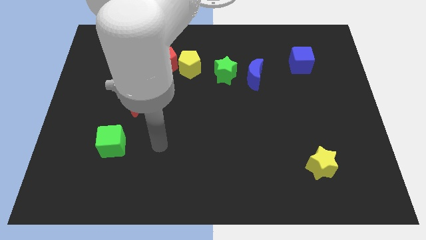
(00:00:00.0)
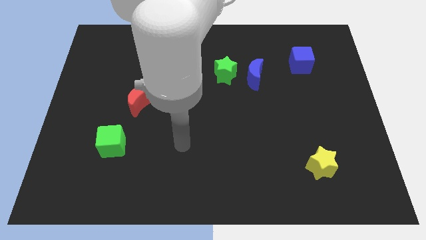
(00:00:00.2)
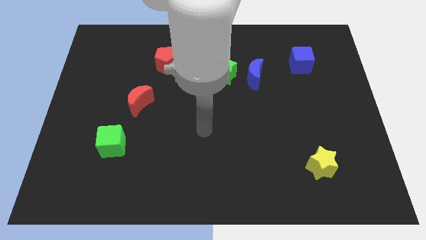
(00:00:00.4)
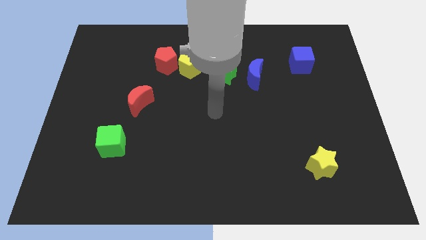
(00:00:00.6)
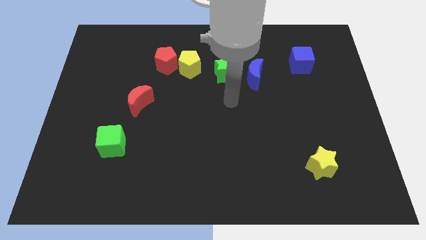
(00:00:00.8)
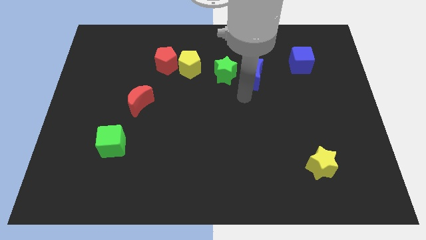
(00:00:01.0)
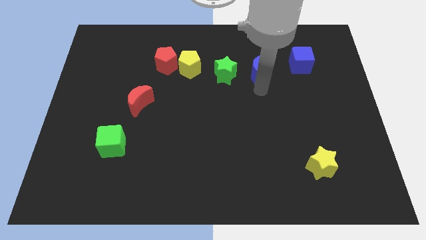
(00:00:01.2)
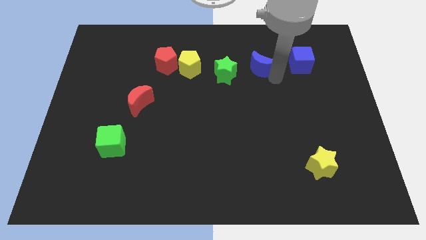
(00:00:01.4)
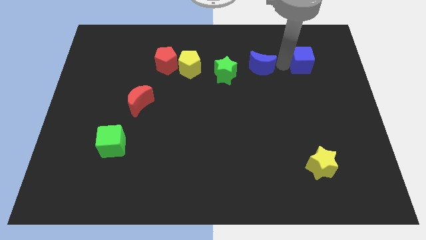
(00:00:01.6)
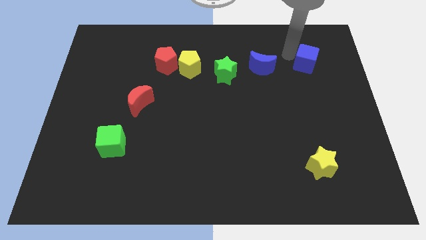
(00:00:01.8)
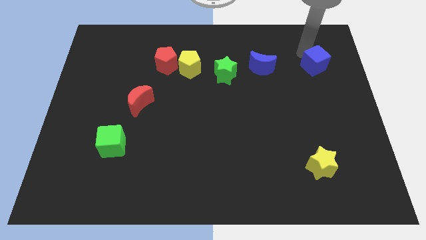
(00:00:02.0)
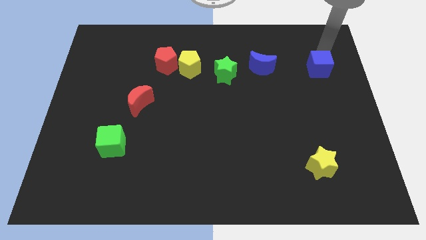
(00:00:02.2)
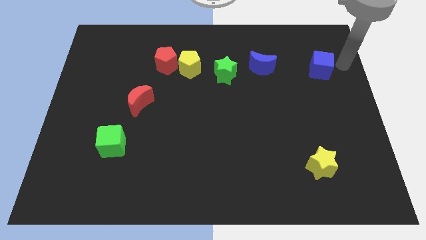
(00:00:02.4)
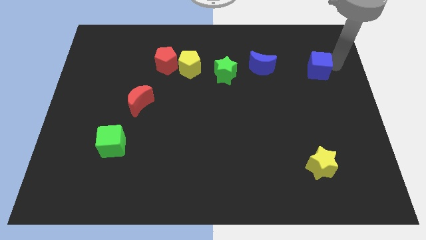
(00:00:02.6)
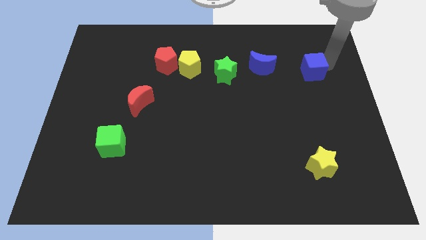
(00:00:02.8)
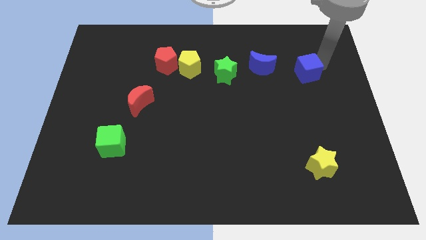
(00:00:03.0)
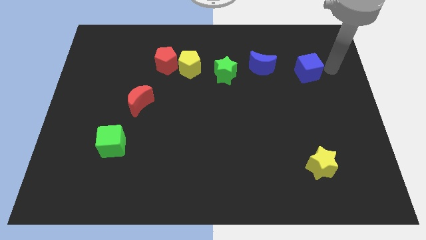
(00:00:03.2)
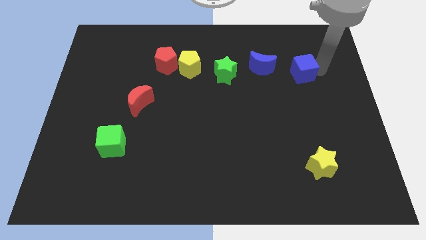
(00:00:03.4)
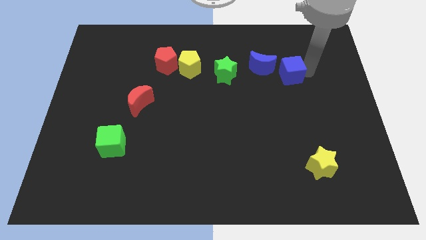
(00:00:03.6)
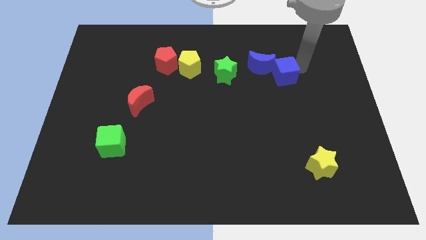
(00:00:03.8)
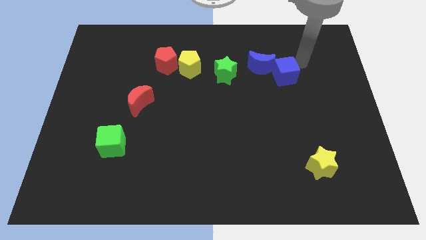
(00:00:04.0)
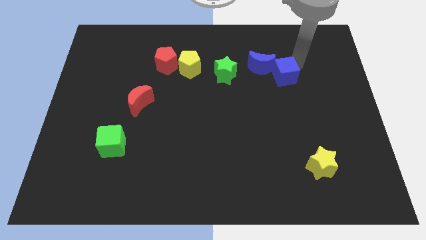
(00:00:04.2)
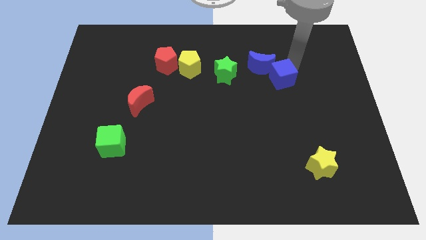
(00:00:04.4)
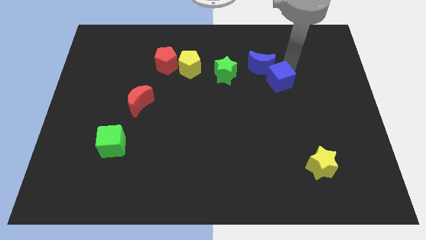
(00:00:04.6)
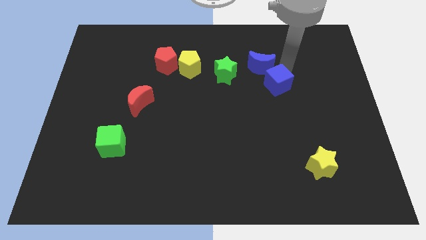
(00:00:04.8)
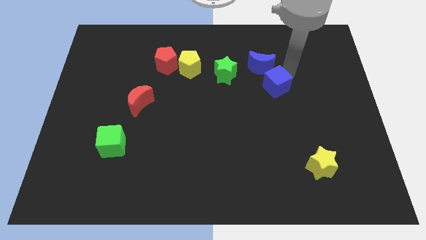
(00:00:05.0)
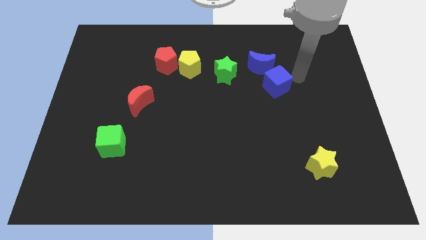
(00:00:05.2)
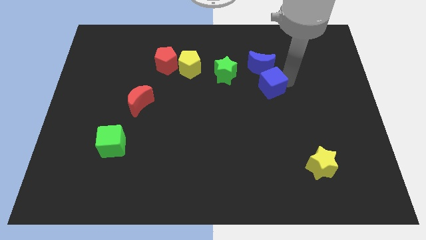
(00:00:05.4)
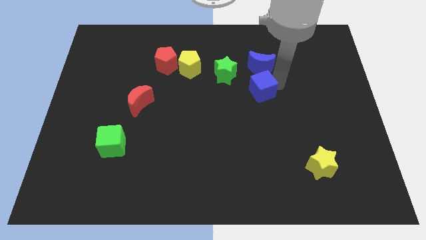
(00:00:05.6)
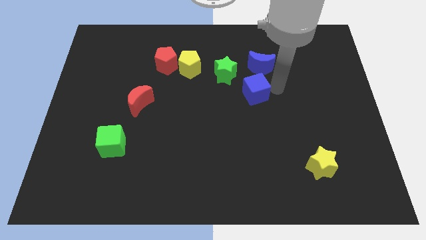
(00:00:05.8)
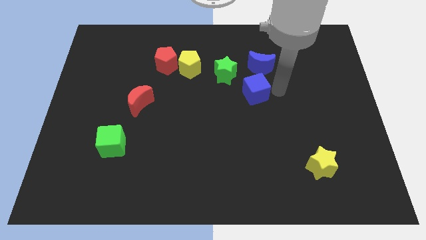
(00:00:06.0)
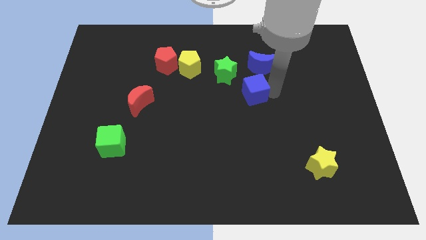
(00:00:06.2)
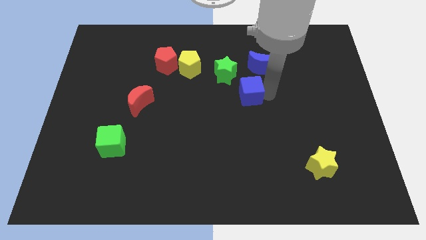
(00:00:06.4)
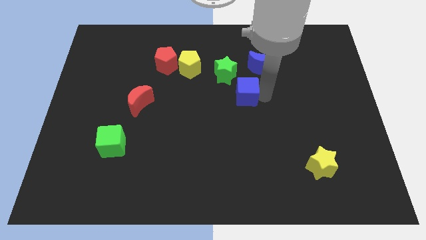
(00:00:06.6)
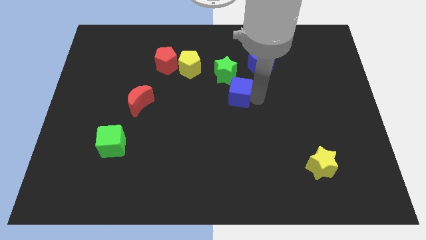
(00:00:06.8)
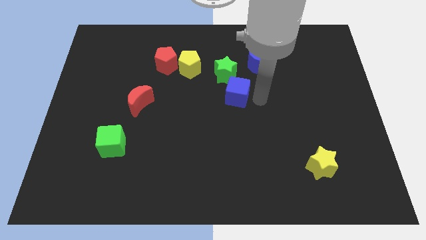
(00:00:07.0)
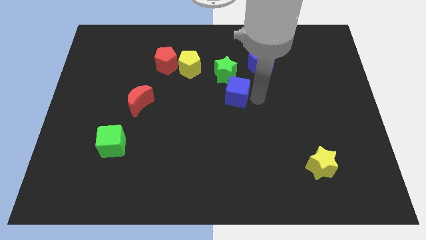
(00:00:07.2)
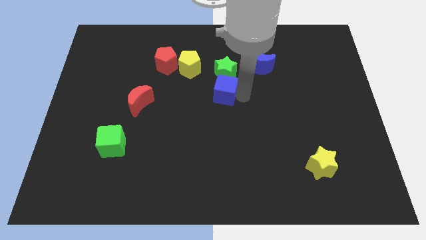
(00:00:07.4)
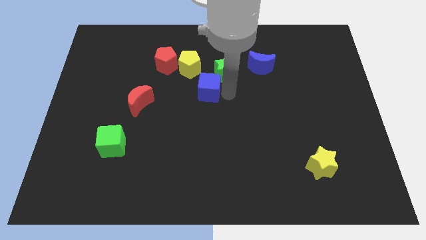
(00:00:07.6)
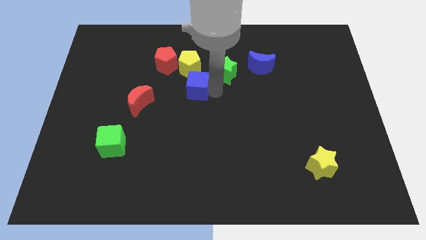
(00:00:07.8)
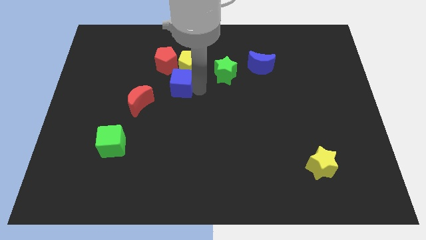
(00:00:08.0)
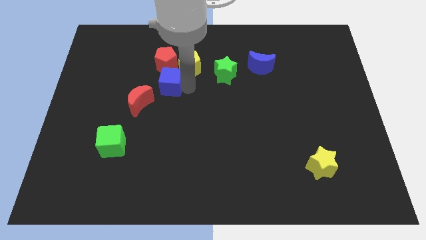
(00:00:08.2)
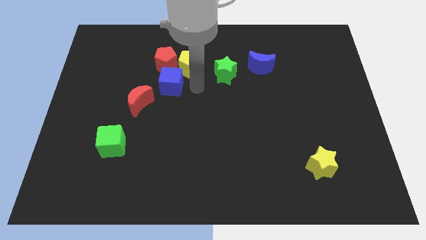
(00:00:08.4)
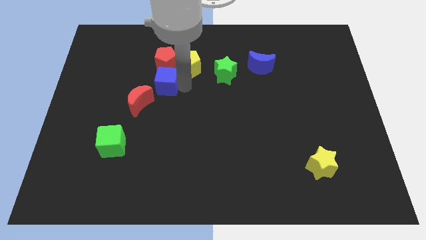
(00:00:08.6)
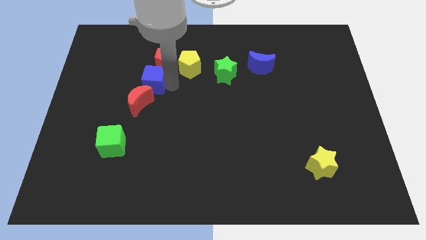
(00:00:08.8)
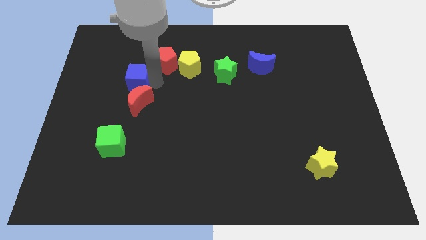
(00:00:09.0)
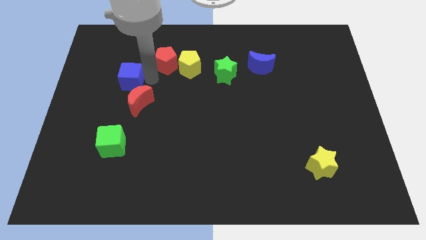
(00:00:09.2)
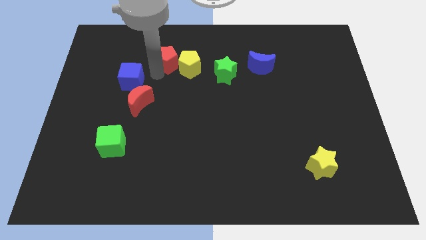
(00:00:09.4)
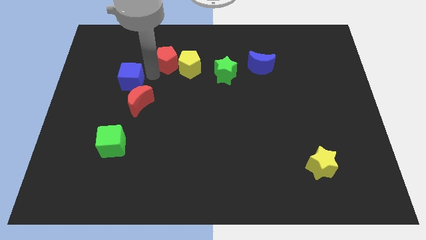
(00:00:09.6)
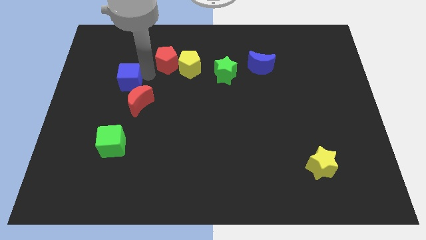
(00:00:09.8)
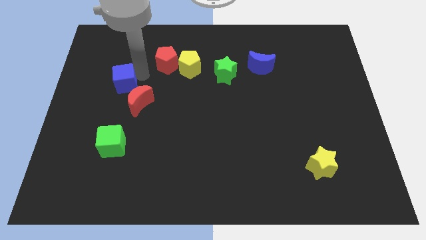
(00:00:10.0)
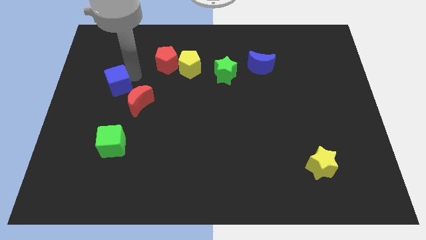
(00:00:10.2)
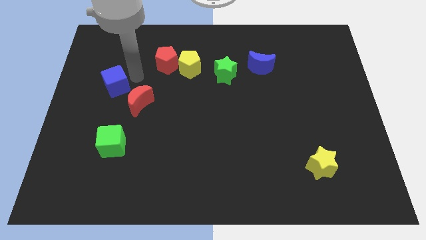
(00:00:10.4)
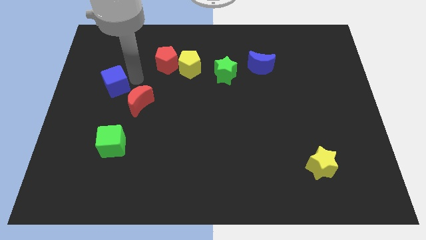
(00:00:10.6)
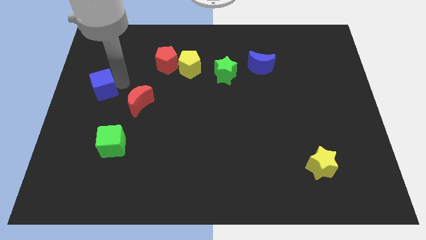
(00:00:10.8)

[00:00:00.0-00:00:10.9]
slide the blue cube to the center left

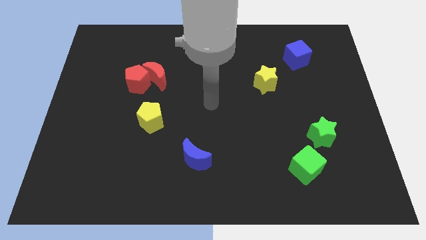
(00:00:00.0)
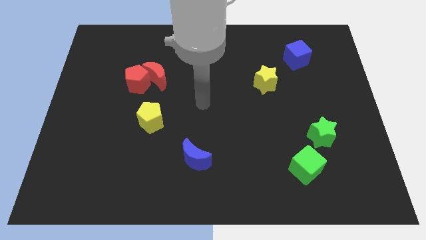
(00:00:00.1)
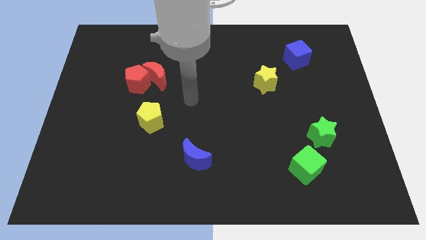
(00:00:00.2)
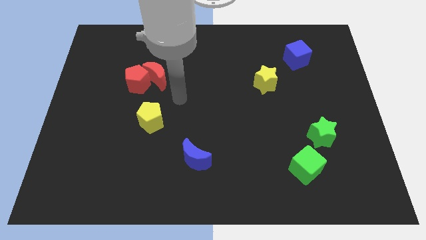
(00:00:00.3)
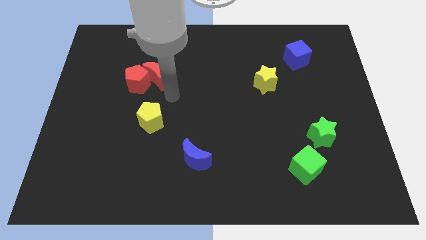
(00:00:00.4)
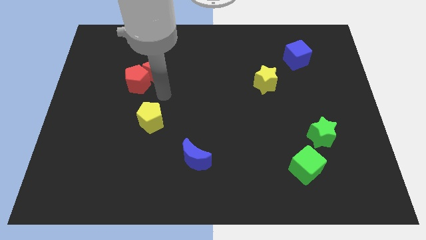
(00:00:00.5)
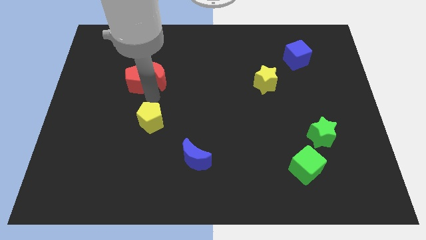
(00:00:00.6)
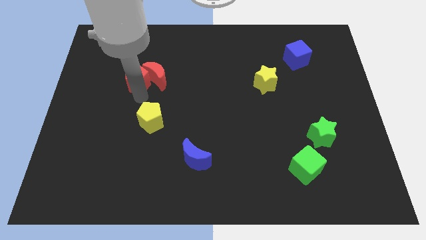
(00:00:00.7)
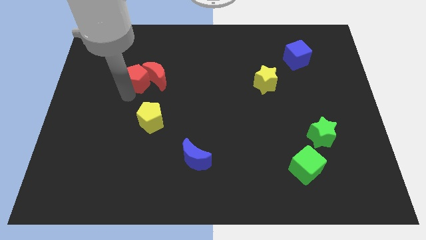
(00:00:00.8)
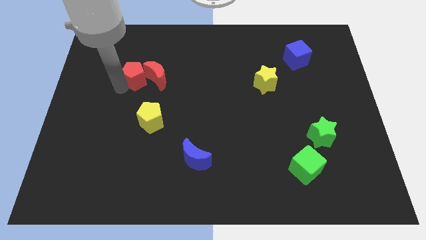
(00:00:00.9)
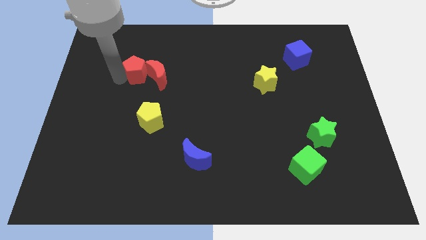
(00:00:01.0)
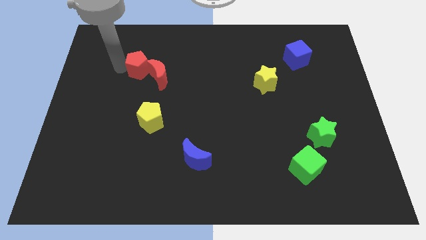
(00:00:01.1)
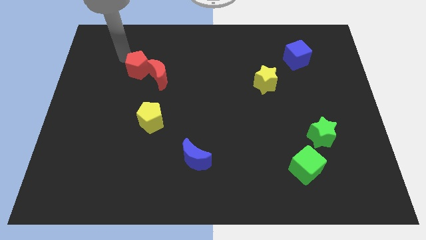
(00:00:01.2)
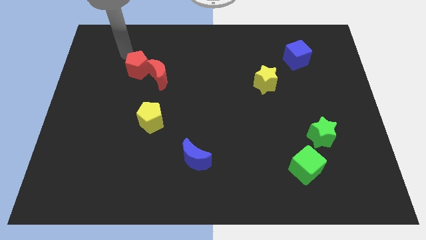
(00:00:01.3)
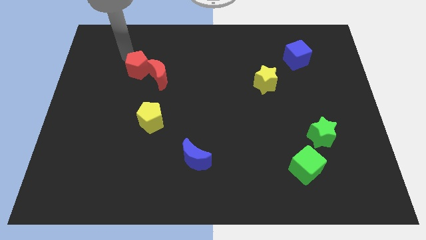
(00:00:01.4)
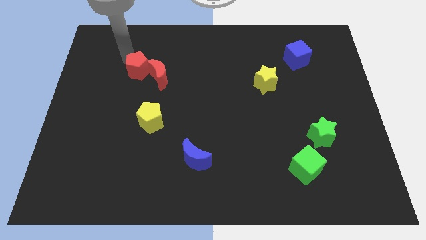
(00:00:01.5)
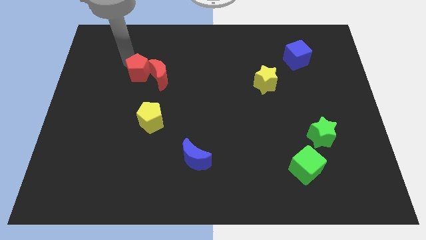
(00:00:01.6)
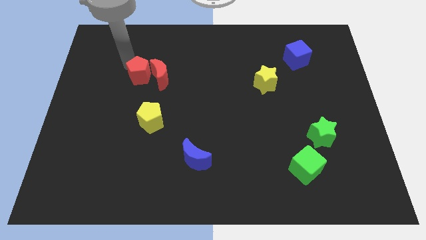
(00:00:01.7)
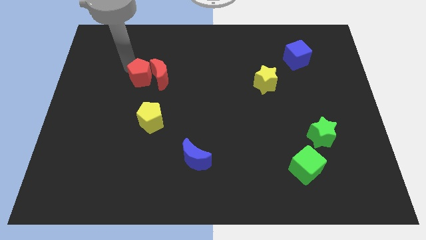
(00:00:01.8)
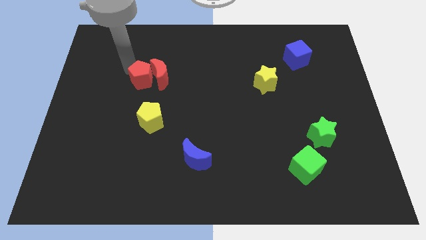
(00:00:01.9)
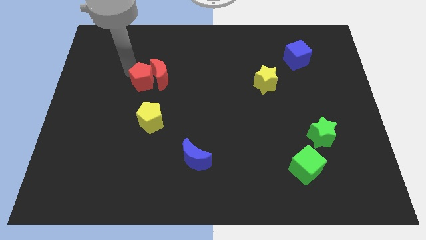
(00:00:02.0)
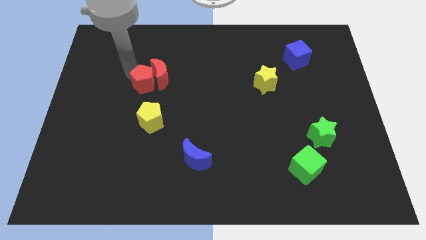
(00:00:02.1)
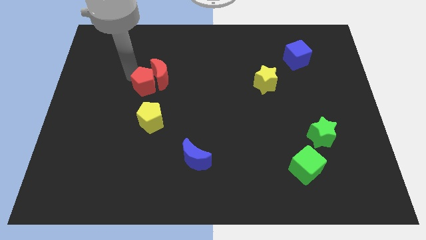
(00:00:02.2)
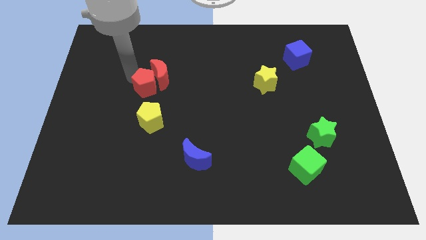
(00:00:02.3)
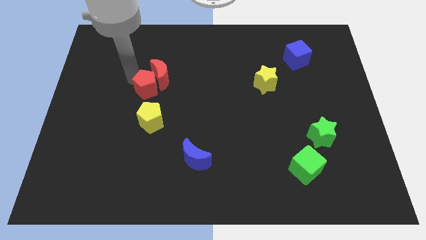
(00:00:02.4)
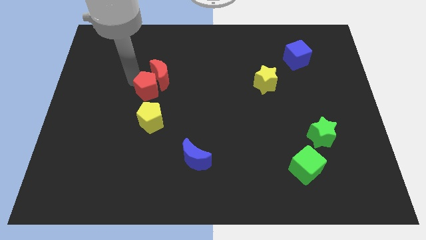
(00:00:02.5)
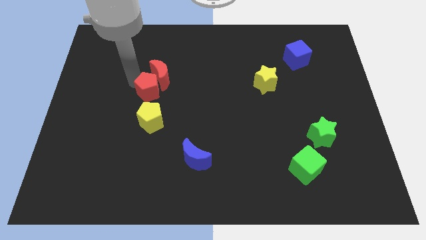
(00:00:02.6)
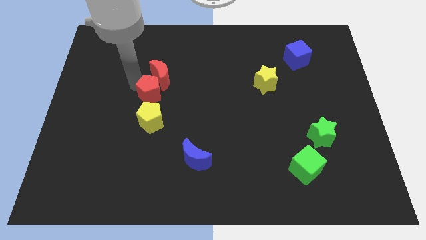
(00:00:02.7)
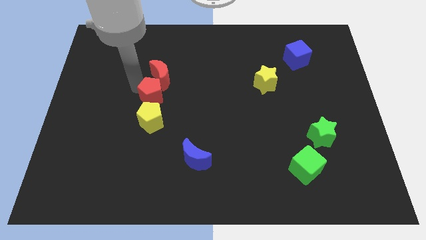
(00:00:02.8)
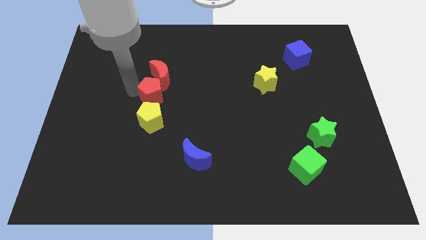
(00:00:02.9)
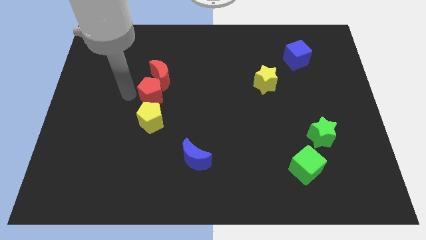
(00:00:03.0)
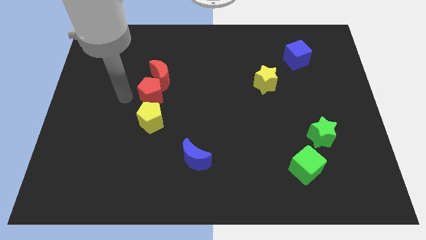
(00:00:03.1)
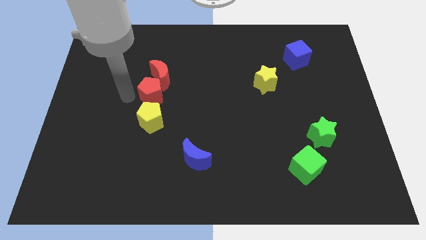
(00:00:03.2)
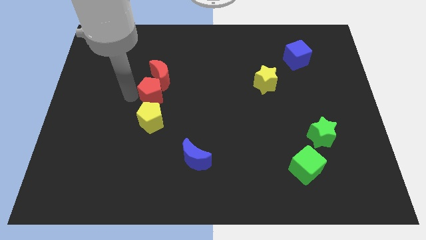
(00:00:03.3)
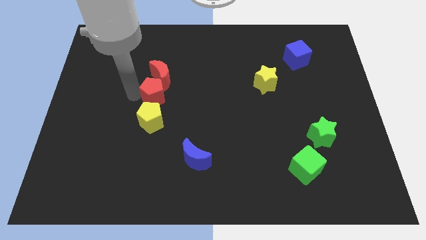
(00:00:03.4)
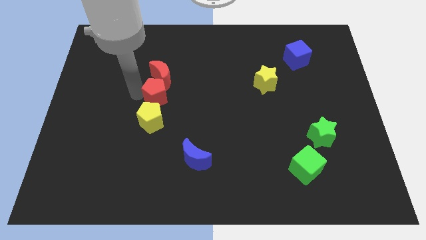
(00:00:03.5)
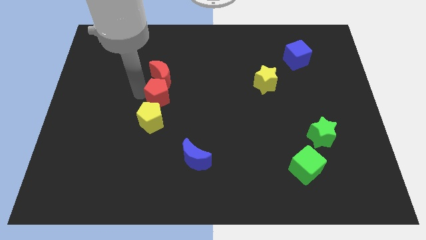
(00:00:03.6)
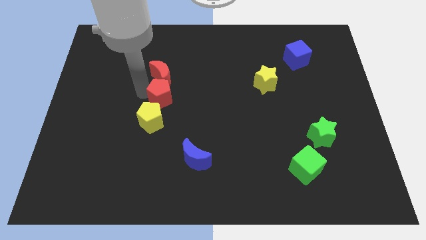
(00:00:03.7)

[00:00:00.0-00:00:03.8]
put the red pentagon to the center of the board
